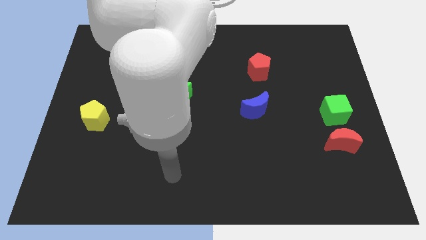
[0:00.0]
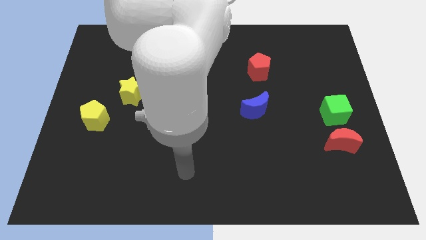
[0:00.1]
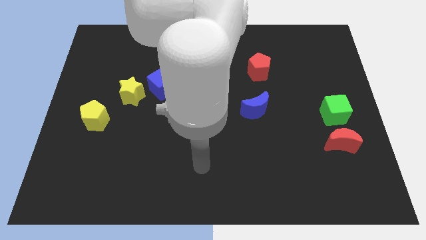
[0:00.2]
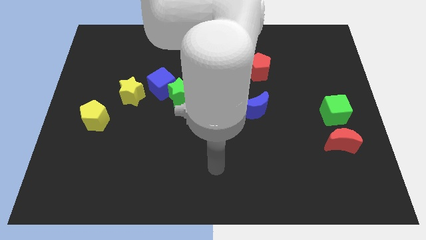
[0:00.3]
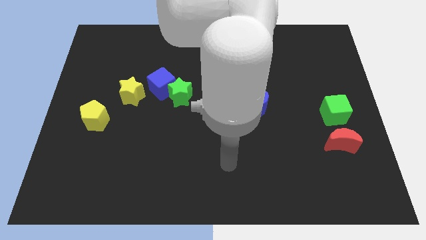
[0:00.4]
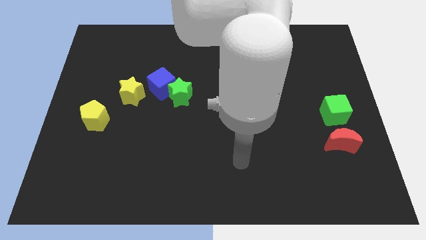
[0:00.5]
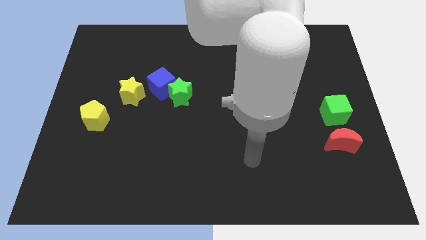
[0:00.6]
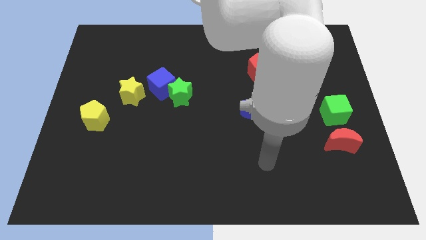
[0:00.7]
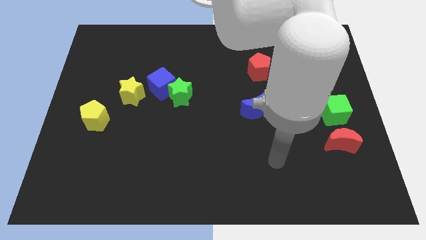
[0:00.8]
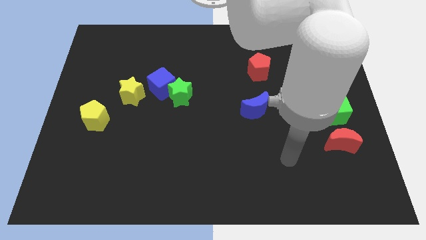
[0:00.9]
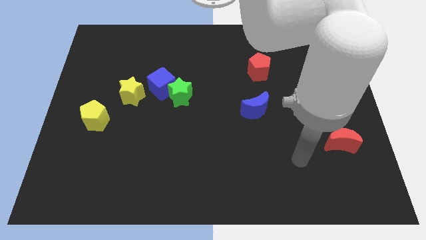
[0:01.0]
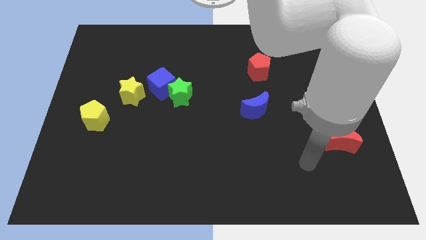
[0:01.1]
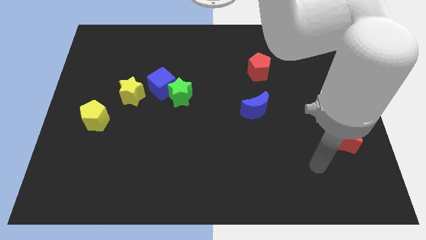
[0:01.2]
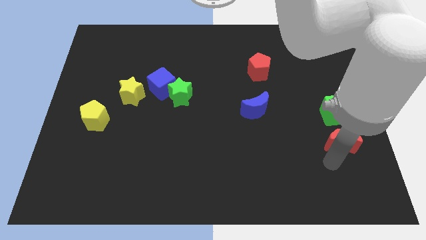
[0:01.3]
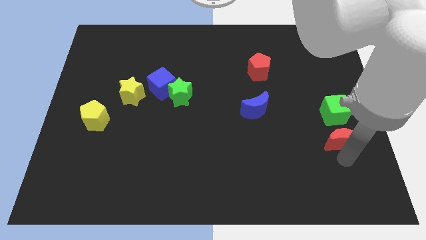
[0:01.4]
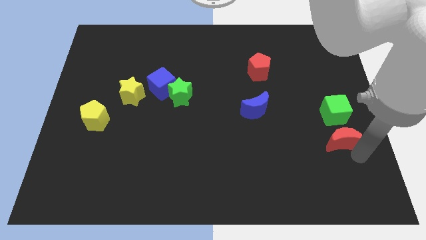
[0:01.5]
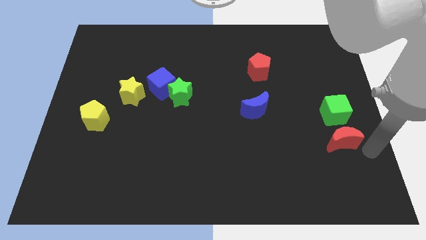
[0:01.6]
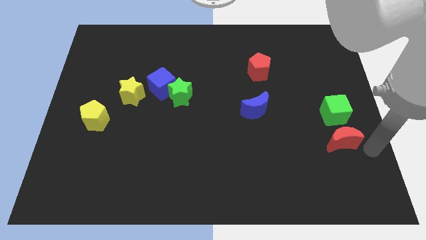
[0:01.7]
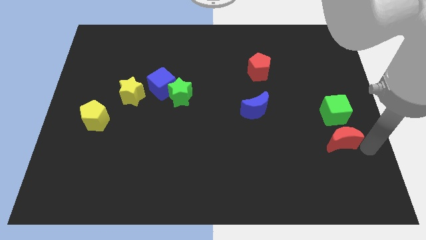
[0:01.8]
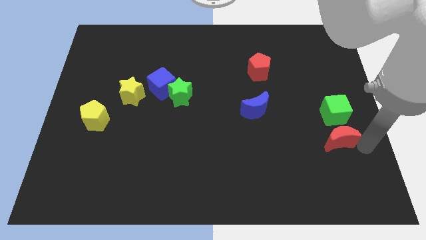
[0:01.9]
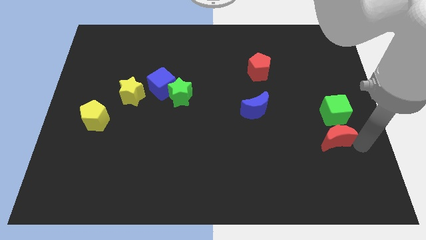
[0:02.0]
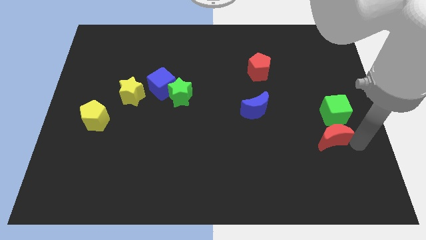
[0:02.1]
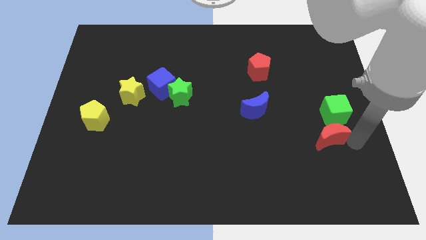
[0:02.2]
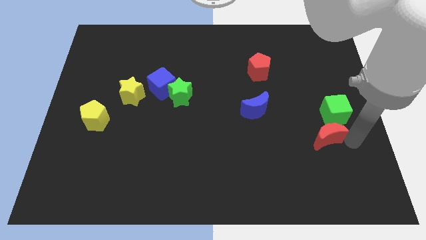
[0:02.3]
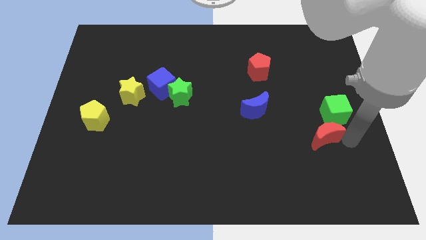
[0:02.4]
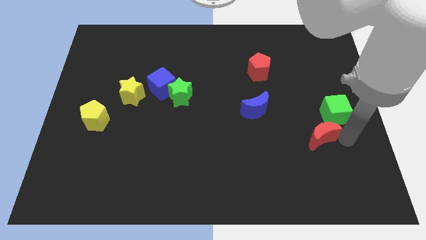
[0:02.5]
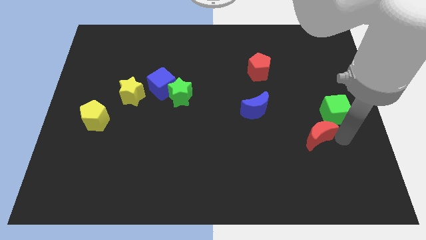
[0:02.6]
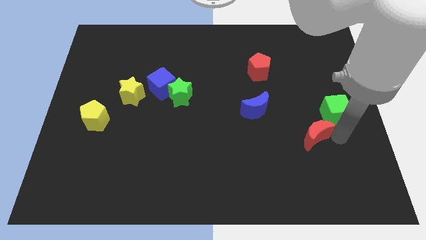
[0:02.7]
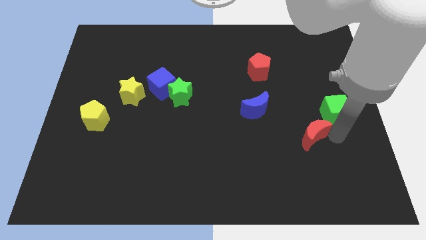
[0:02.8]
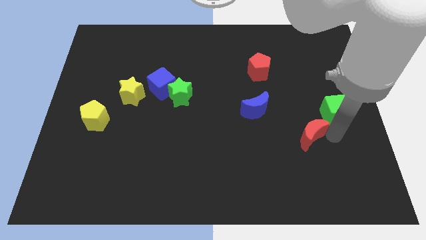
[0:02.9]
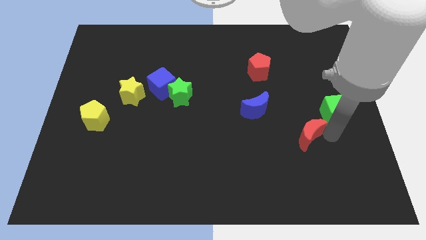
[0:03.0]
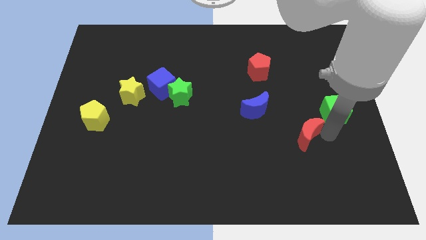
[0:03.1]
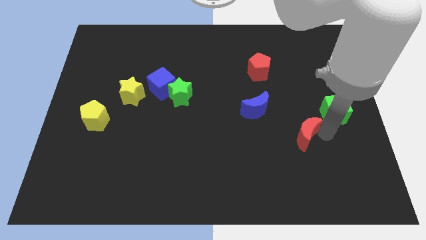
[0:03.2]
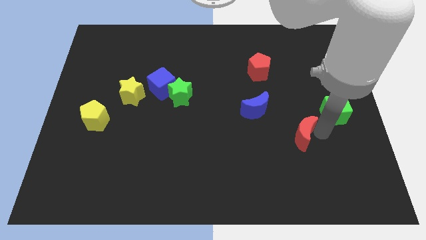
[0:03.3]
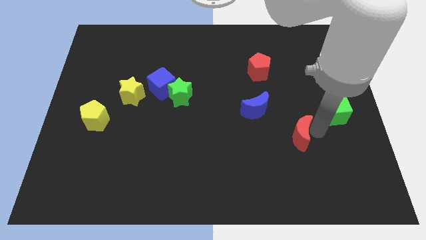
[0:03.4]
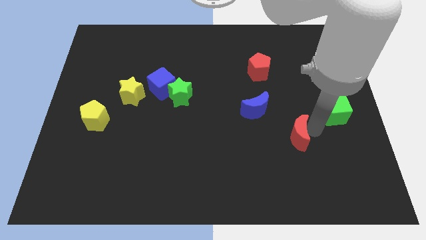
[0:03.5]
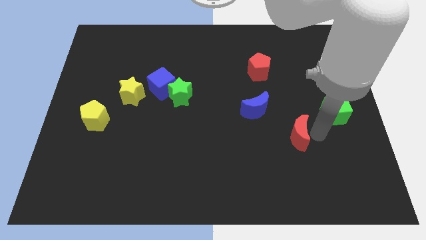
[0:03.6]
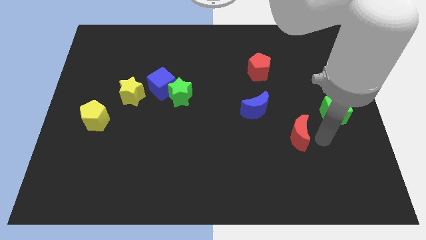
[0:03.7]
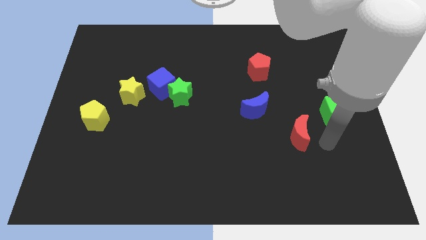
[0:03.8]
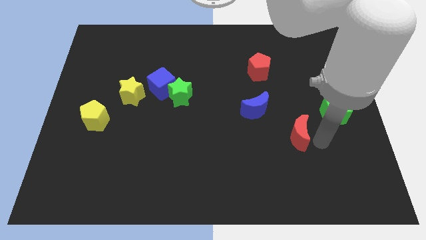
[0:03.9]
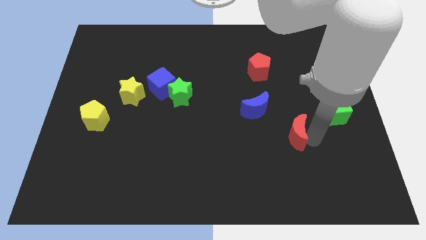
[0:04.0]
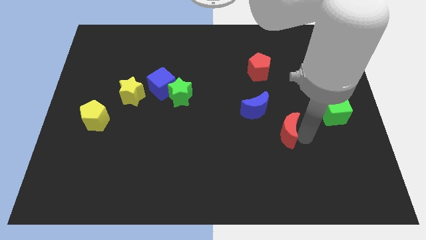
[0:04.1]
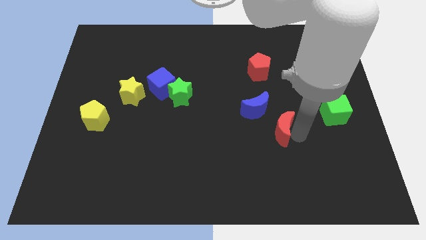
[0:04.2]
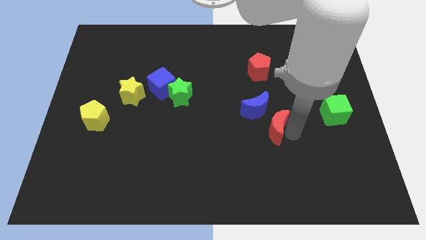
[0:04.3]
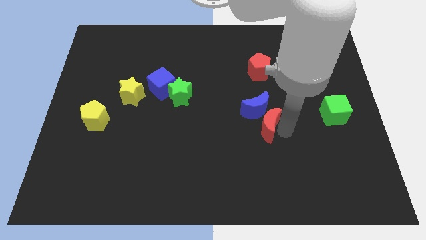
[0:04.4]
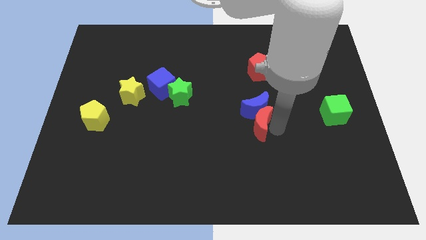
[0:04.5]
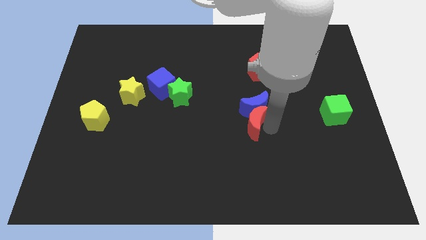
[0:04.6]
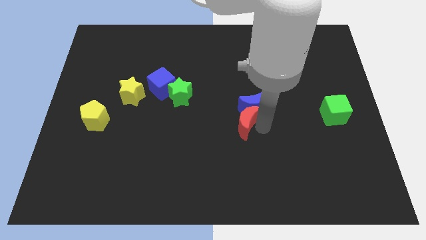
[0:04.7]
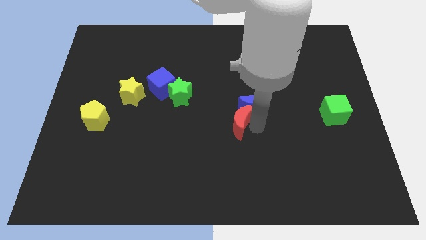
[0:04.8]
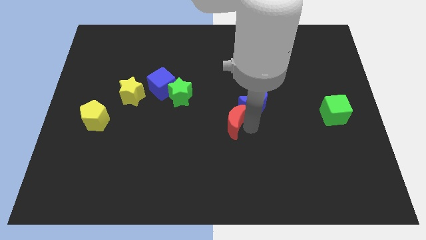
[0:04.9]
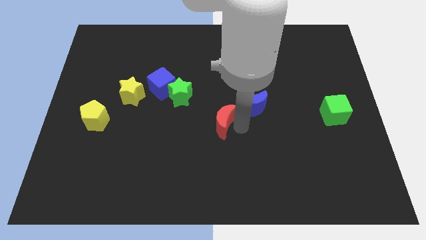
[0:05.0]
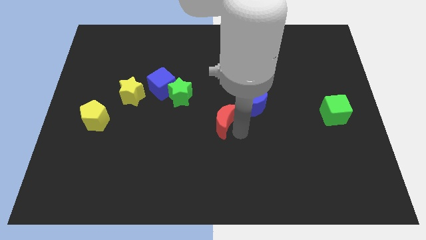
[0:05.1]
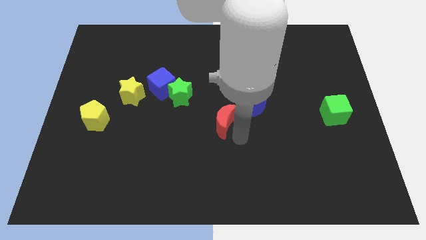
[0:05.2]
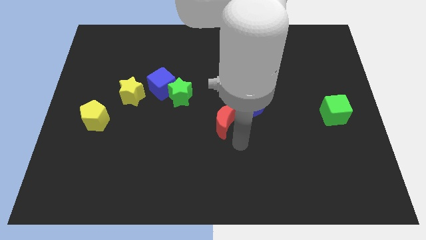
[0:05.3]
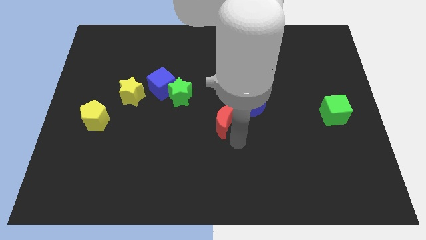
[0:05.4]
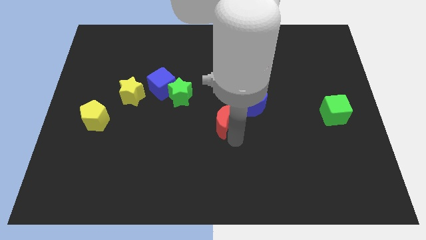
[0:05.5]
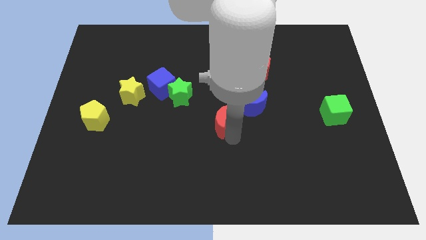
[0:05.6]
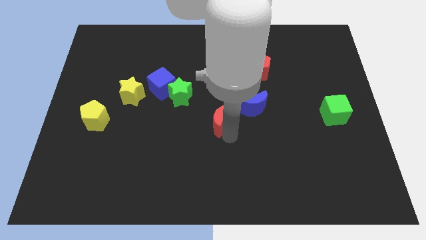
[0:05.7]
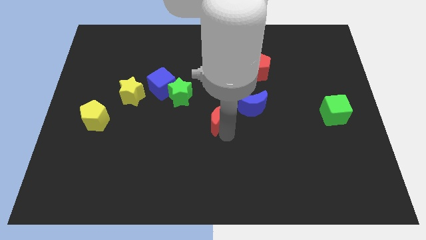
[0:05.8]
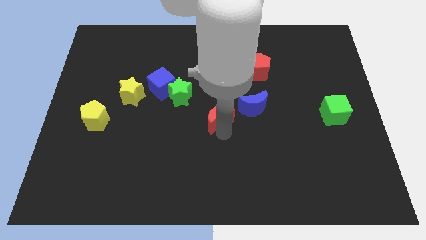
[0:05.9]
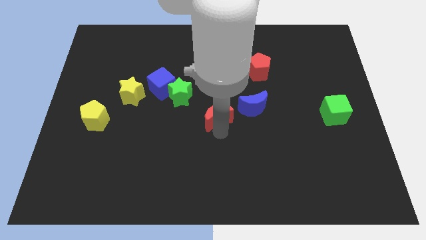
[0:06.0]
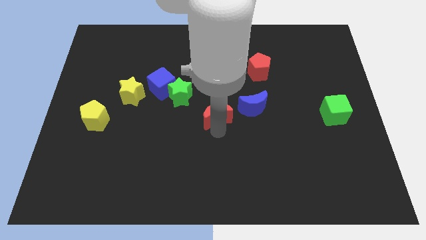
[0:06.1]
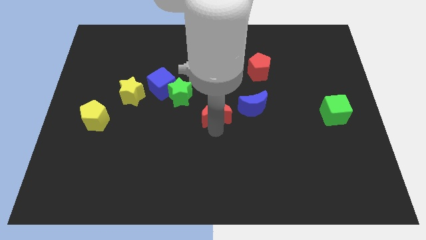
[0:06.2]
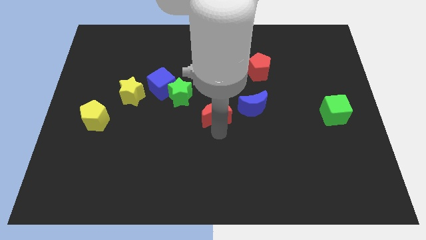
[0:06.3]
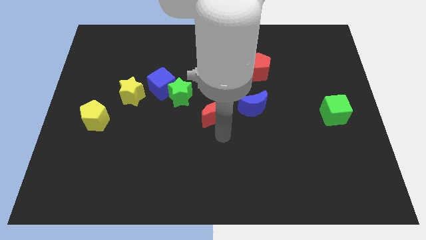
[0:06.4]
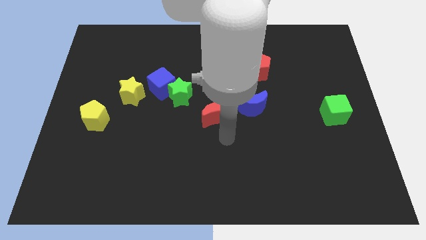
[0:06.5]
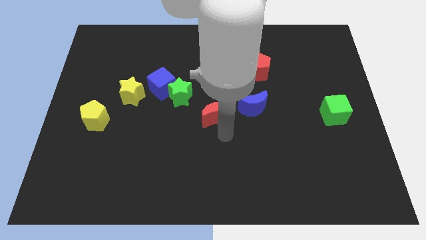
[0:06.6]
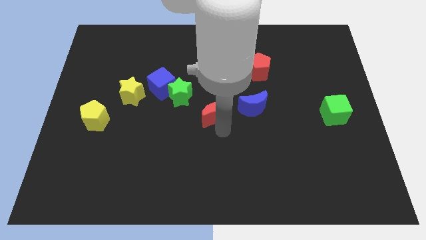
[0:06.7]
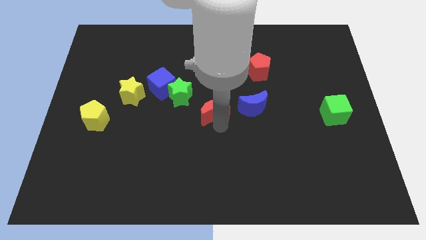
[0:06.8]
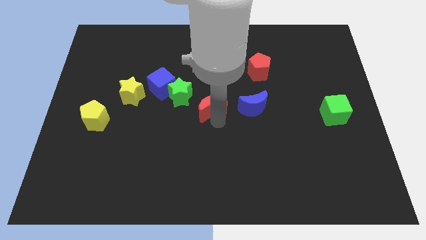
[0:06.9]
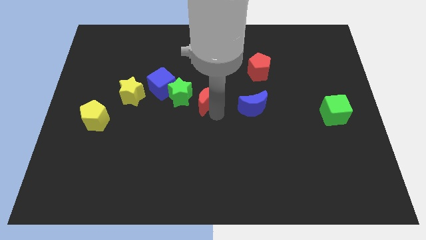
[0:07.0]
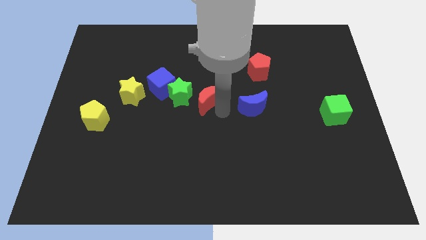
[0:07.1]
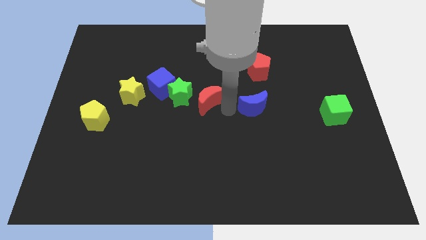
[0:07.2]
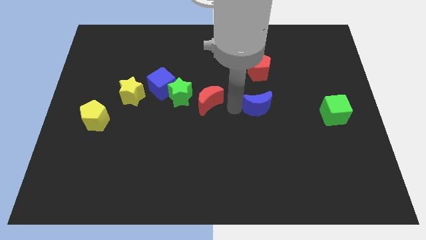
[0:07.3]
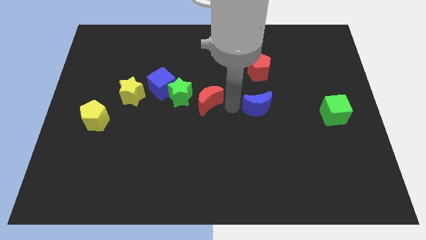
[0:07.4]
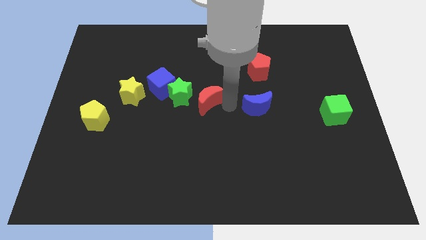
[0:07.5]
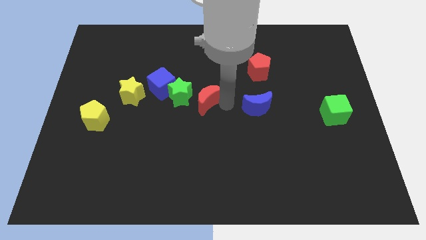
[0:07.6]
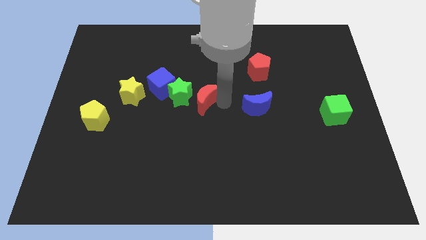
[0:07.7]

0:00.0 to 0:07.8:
push the red moon close to the green star

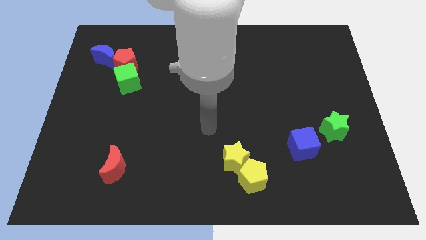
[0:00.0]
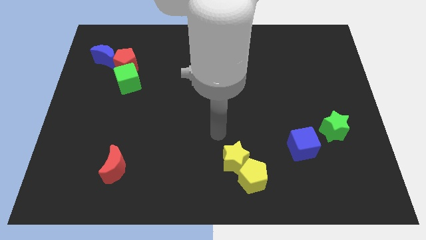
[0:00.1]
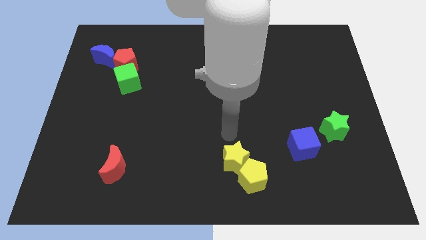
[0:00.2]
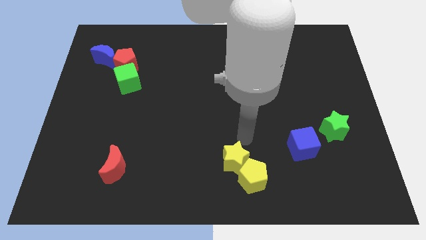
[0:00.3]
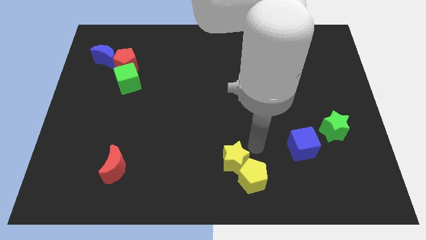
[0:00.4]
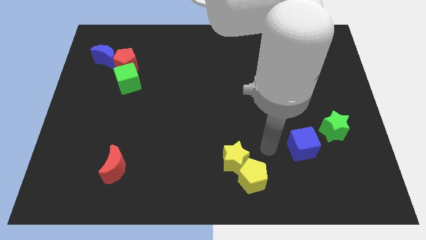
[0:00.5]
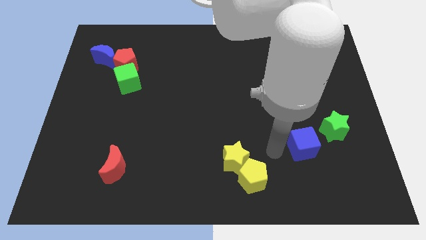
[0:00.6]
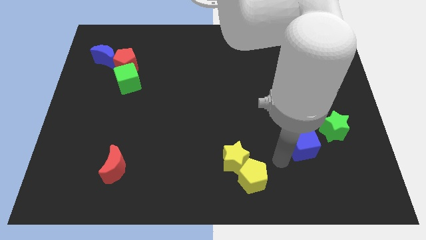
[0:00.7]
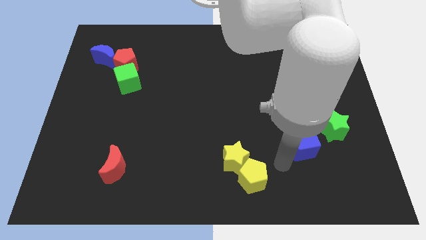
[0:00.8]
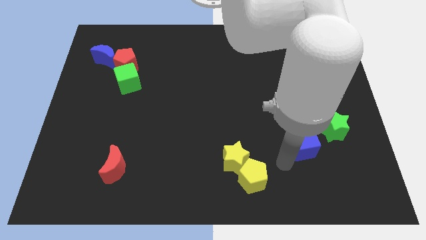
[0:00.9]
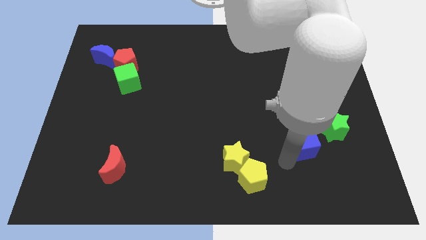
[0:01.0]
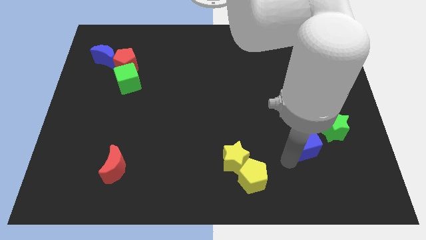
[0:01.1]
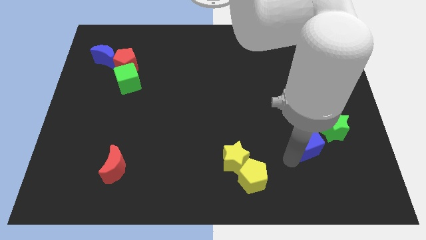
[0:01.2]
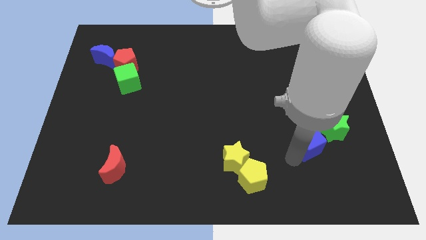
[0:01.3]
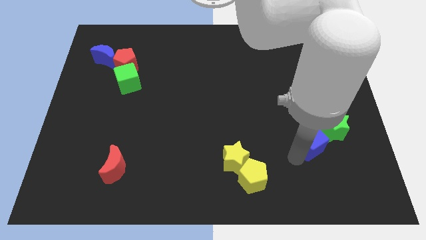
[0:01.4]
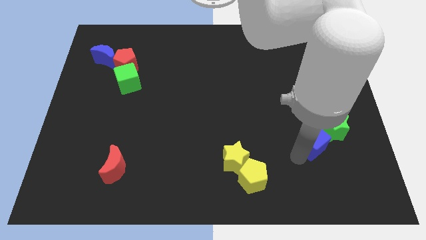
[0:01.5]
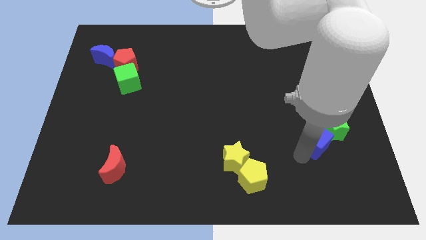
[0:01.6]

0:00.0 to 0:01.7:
move the blue cube next to the green star
